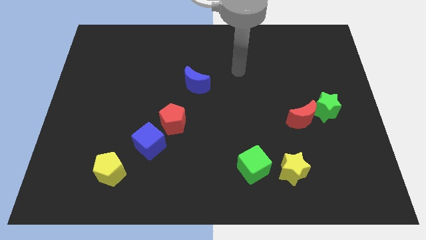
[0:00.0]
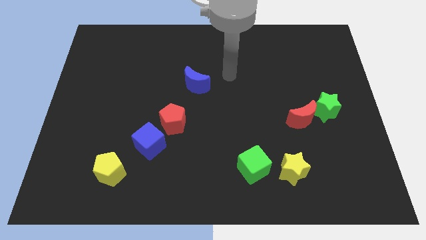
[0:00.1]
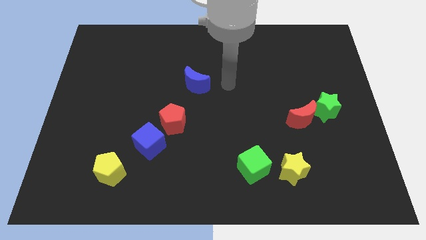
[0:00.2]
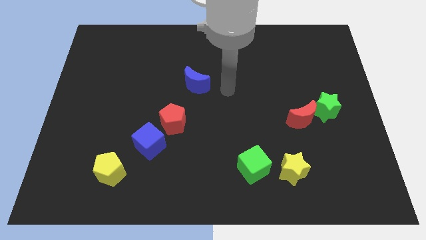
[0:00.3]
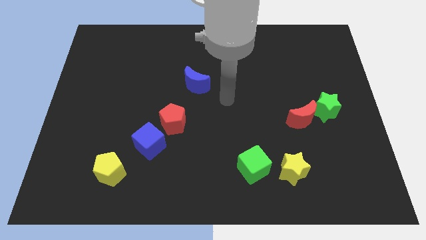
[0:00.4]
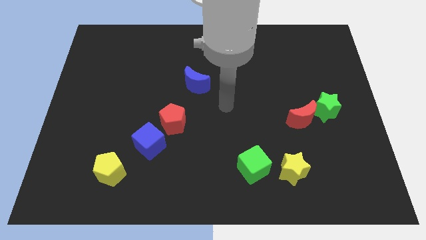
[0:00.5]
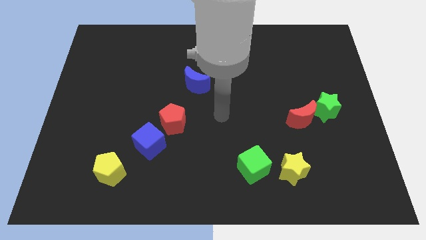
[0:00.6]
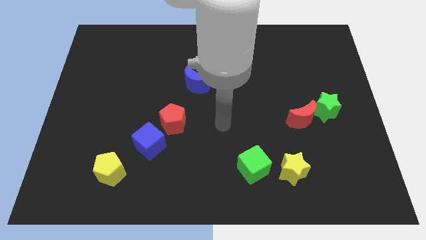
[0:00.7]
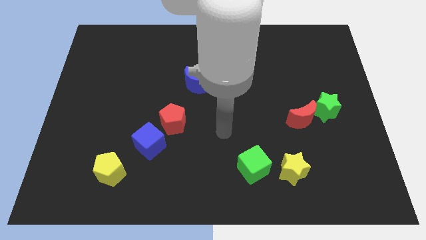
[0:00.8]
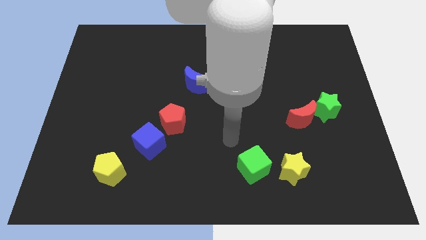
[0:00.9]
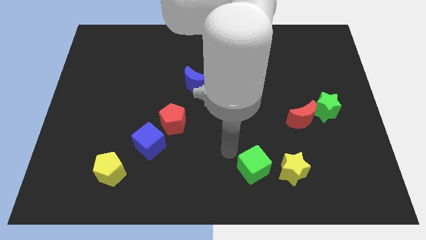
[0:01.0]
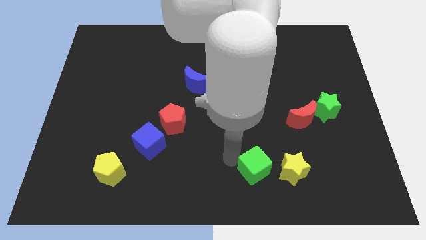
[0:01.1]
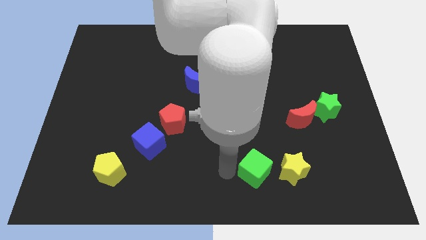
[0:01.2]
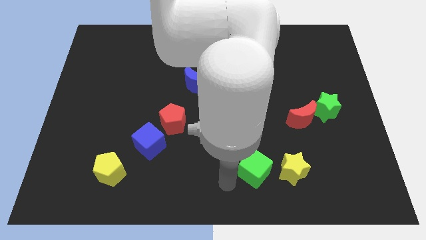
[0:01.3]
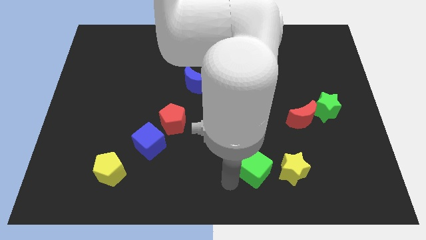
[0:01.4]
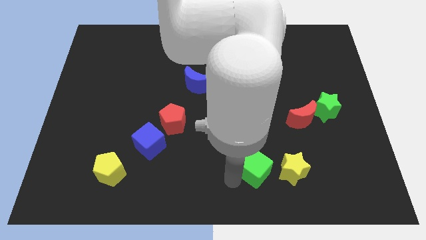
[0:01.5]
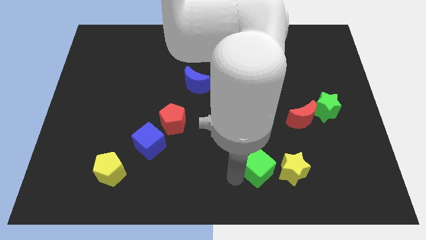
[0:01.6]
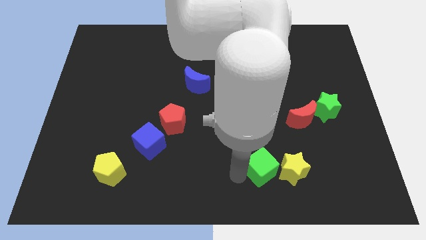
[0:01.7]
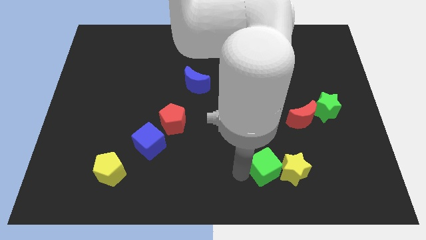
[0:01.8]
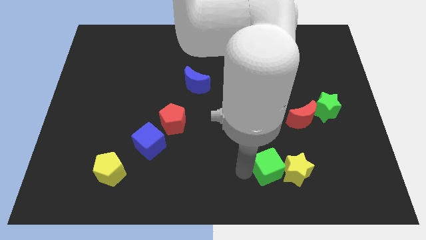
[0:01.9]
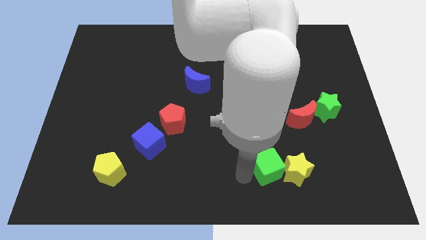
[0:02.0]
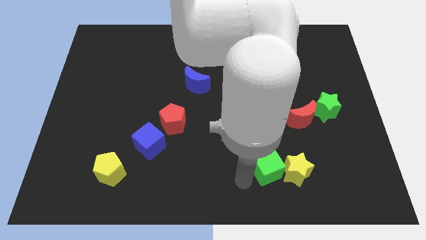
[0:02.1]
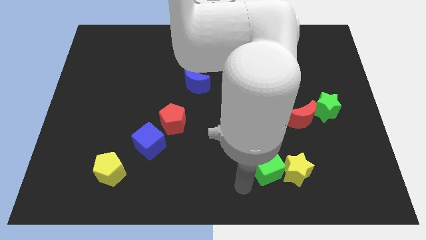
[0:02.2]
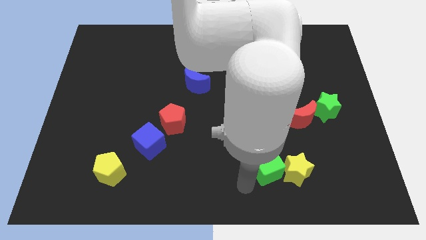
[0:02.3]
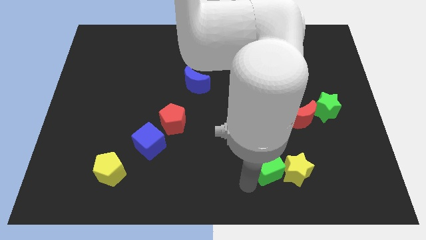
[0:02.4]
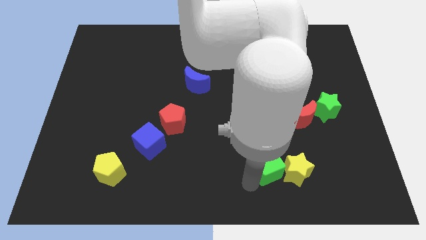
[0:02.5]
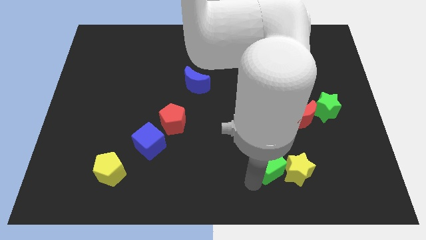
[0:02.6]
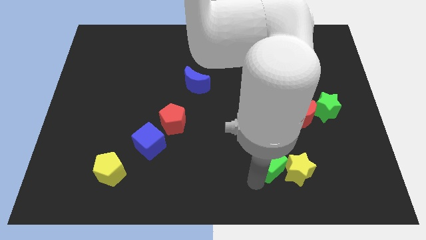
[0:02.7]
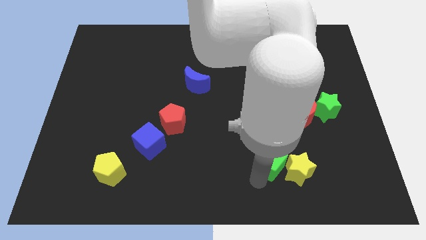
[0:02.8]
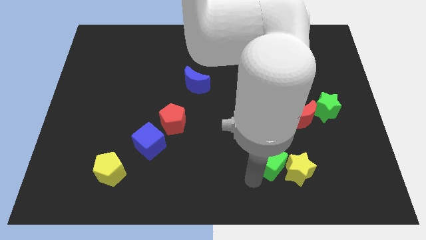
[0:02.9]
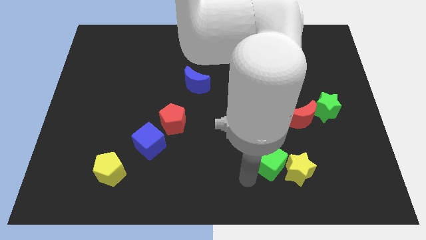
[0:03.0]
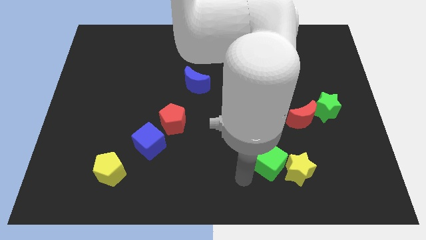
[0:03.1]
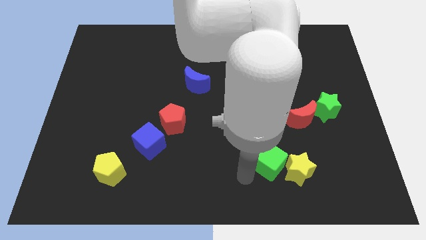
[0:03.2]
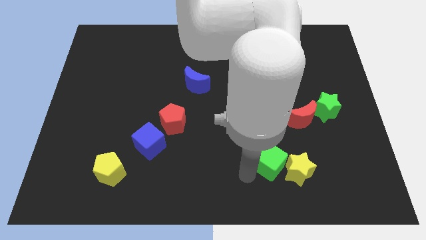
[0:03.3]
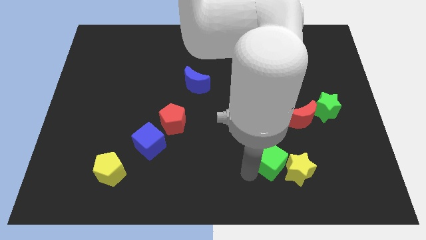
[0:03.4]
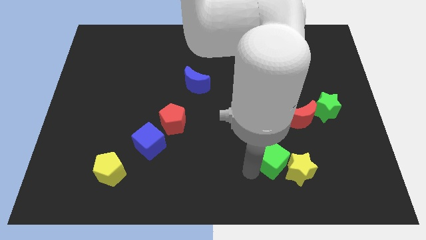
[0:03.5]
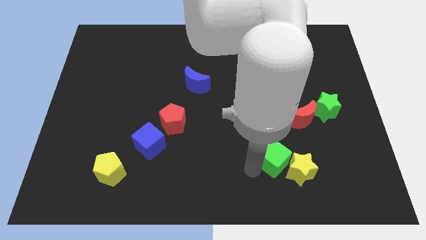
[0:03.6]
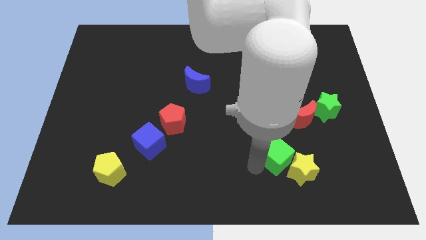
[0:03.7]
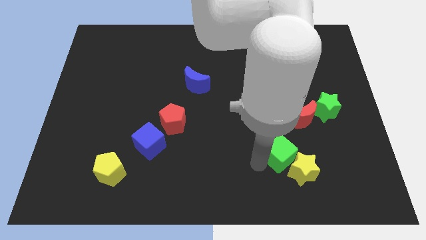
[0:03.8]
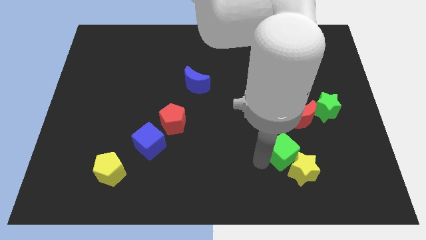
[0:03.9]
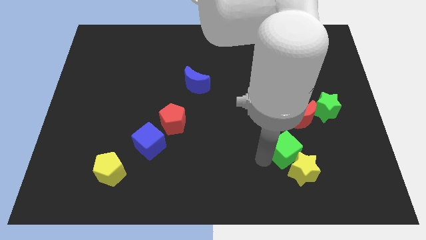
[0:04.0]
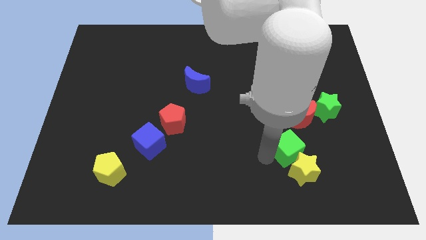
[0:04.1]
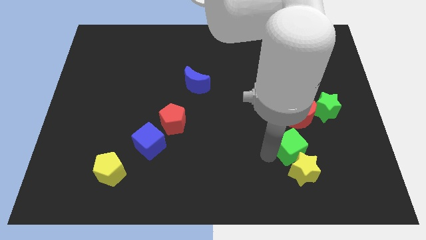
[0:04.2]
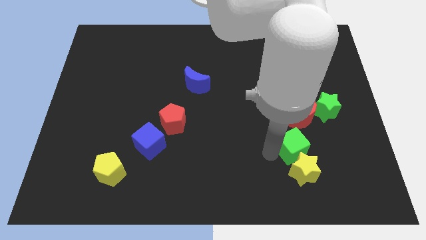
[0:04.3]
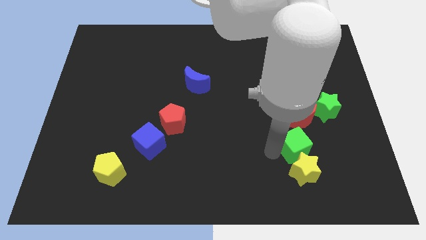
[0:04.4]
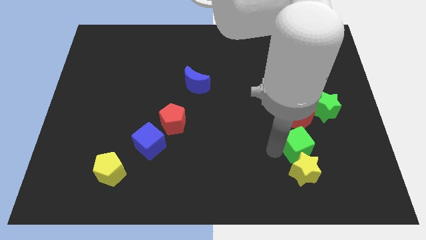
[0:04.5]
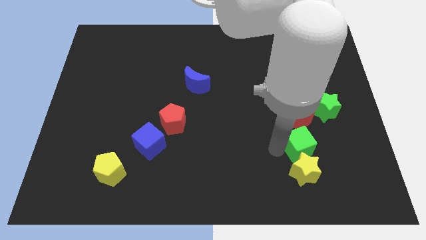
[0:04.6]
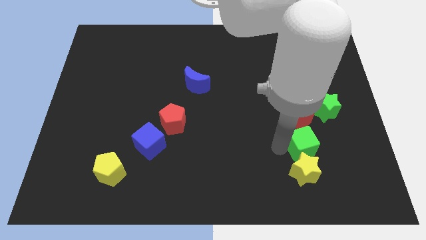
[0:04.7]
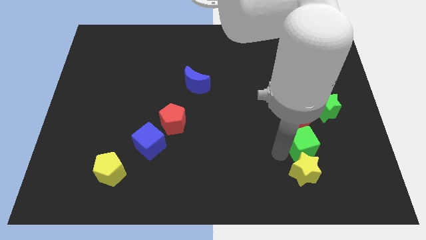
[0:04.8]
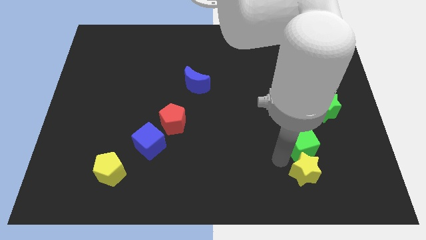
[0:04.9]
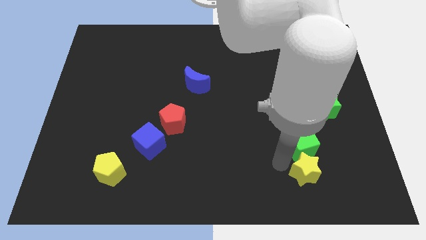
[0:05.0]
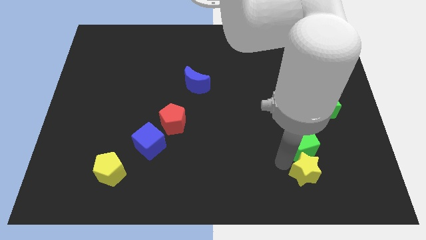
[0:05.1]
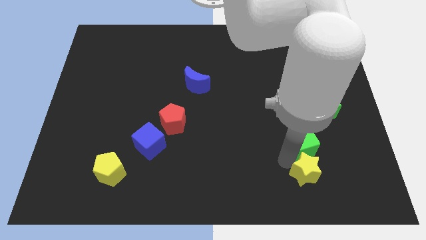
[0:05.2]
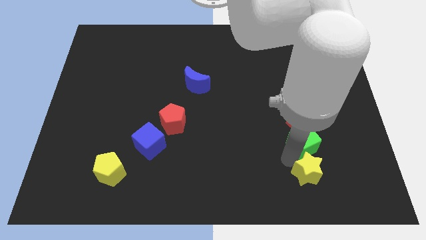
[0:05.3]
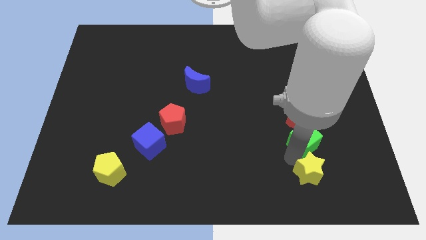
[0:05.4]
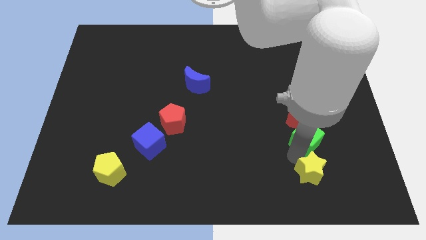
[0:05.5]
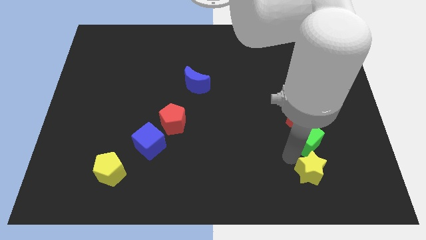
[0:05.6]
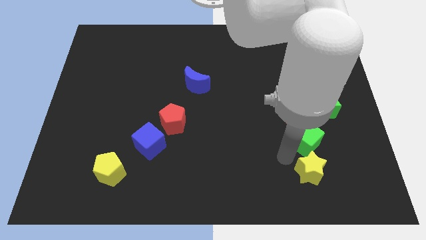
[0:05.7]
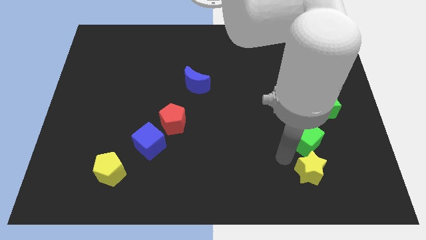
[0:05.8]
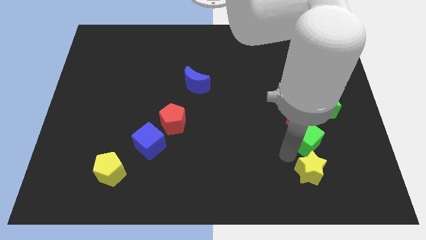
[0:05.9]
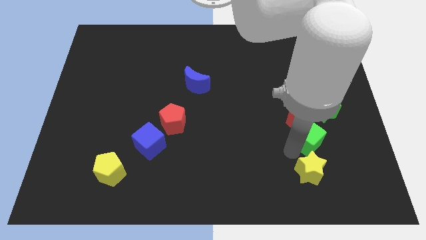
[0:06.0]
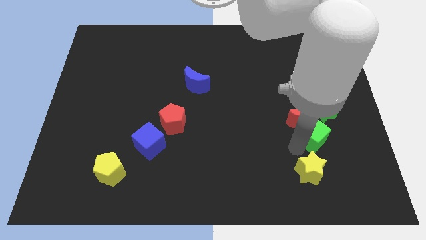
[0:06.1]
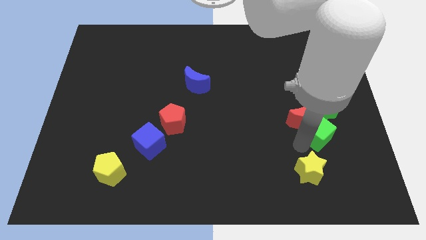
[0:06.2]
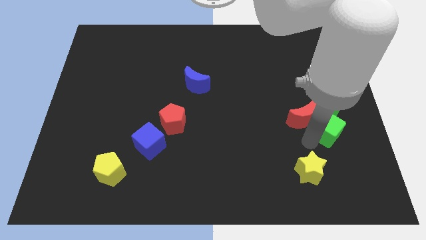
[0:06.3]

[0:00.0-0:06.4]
push the green cube close to the green star
